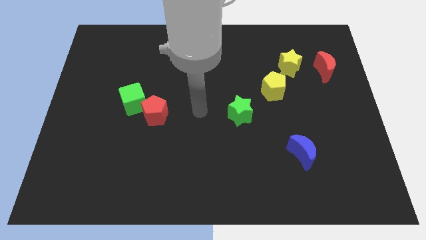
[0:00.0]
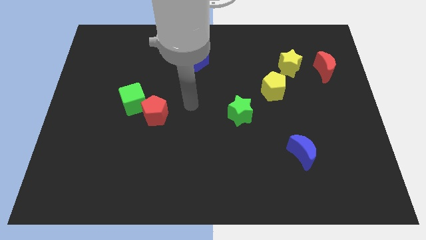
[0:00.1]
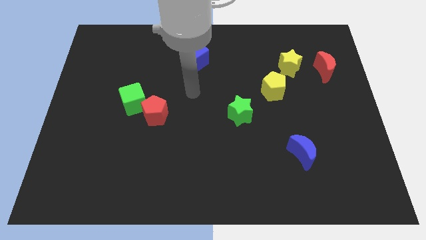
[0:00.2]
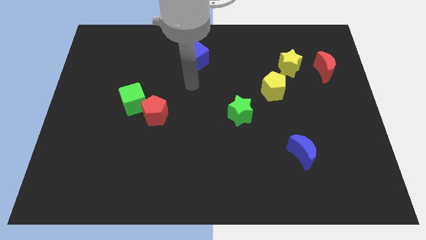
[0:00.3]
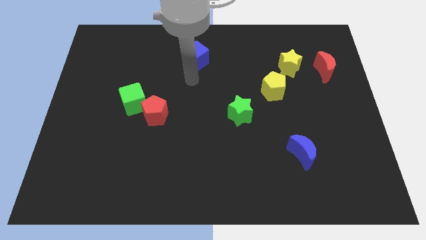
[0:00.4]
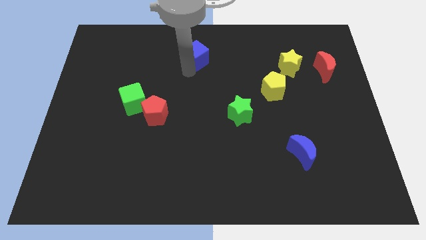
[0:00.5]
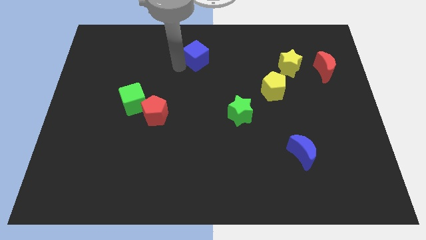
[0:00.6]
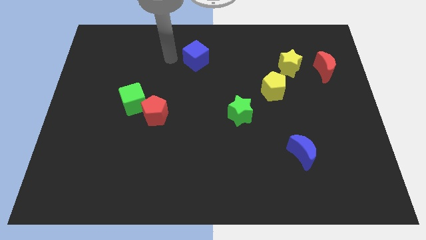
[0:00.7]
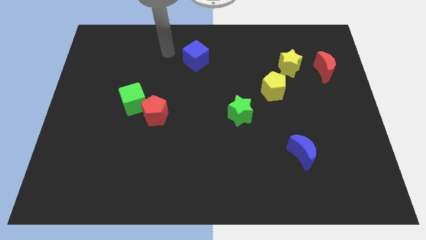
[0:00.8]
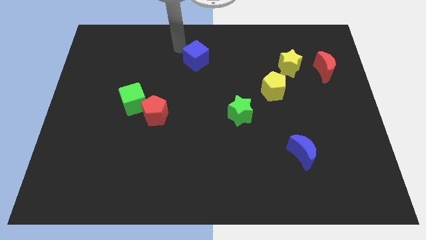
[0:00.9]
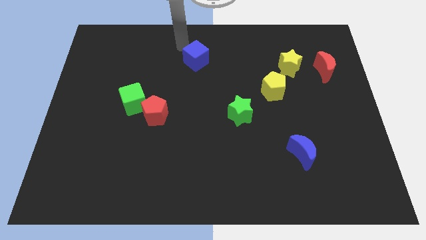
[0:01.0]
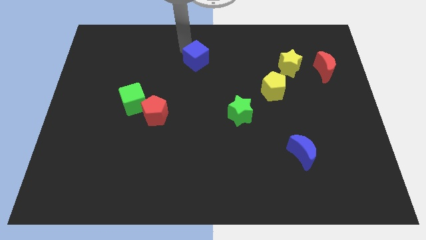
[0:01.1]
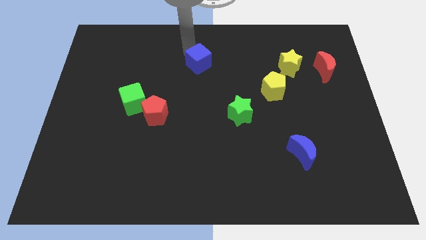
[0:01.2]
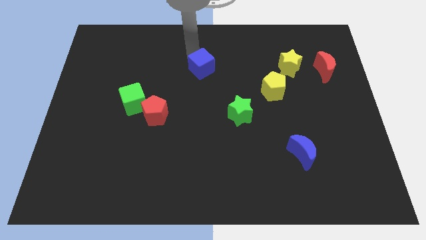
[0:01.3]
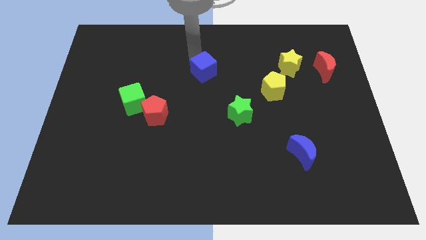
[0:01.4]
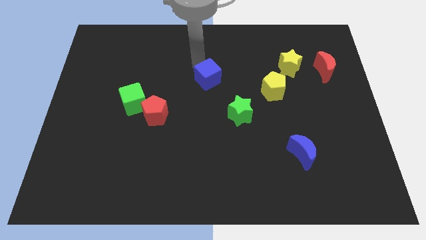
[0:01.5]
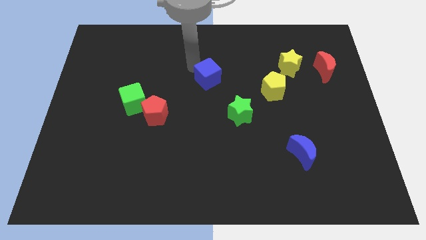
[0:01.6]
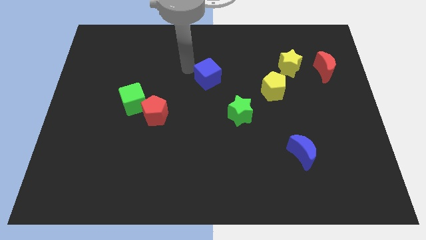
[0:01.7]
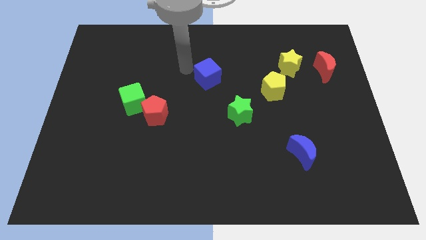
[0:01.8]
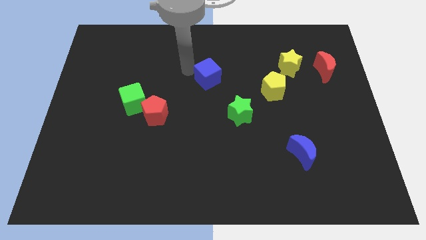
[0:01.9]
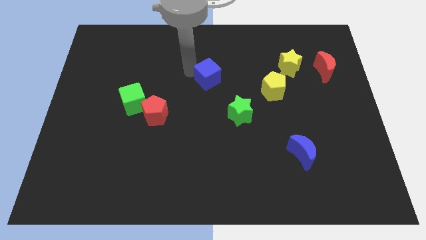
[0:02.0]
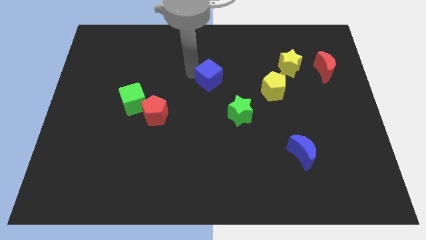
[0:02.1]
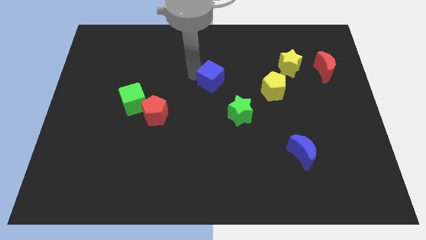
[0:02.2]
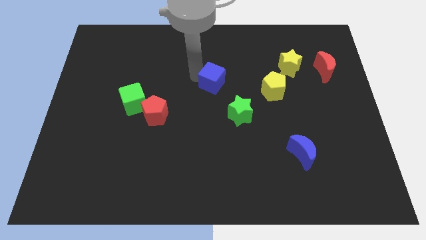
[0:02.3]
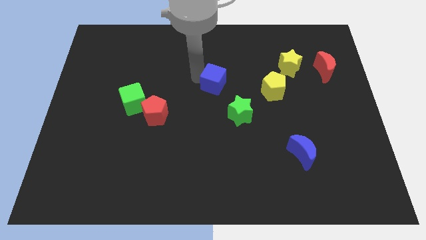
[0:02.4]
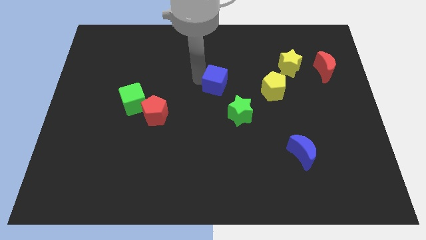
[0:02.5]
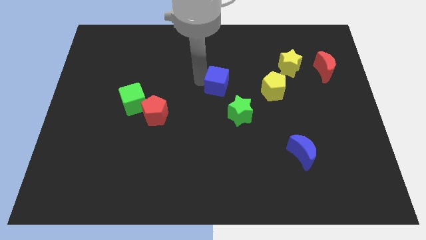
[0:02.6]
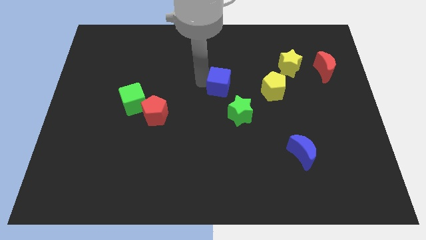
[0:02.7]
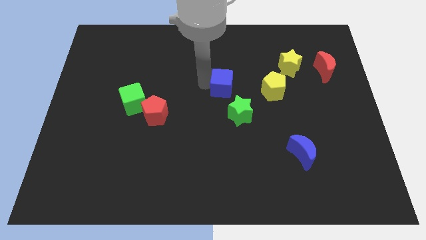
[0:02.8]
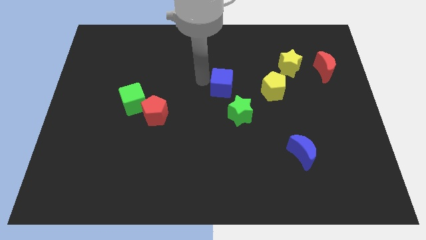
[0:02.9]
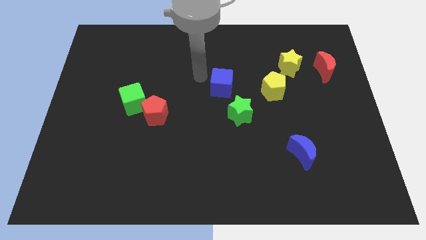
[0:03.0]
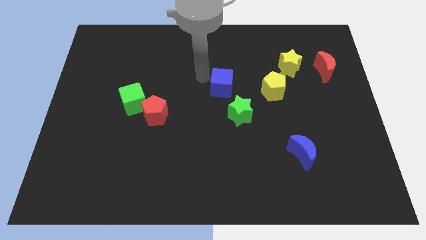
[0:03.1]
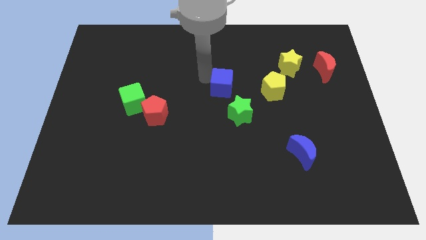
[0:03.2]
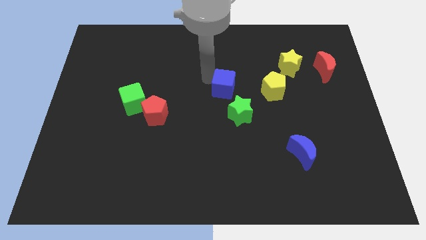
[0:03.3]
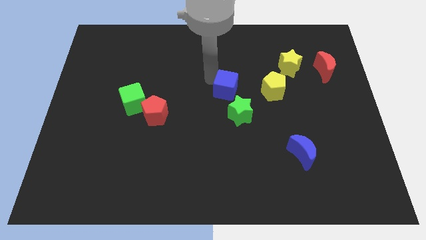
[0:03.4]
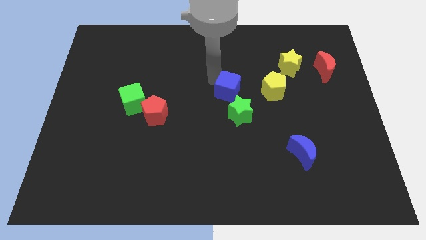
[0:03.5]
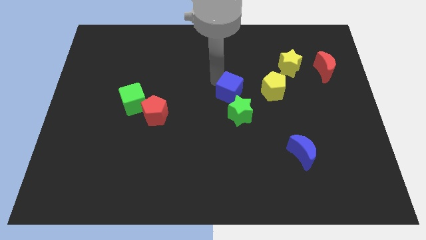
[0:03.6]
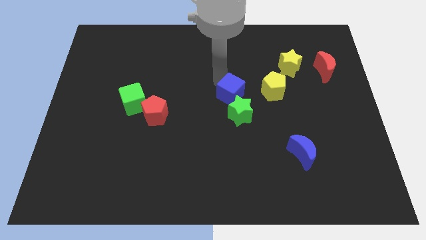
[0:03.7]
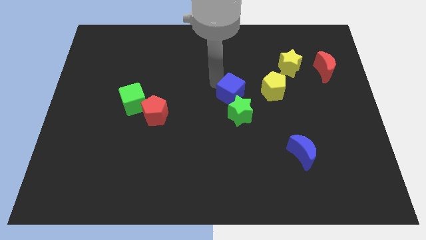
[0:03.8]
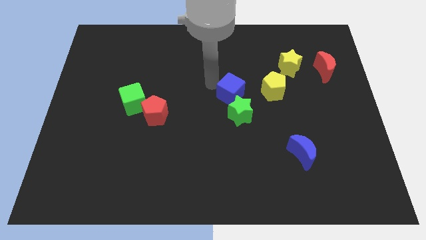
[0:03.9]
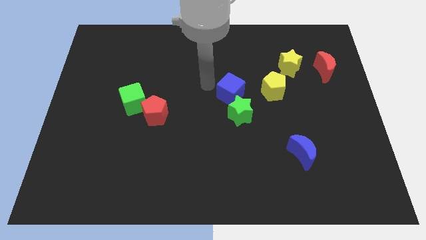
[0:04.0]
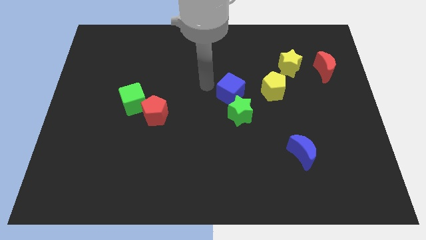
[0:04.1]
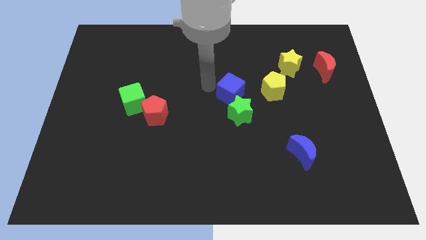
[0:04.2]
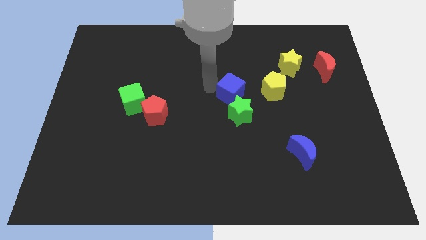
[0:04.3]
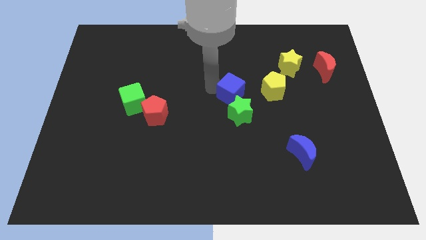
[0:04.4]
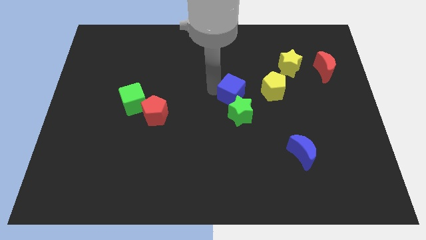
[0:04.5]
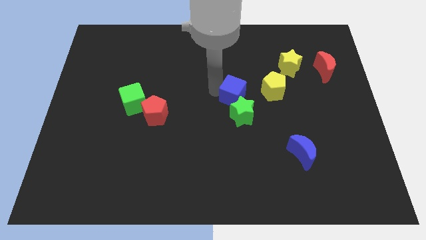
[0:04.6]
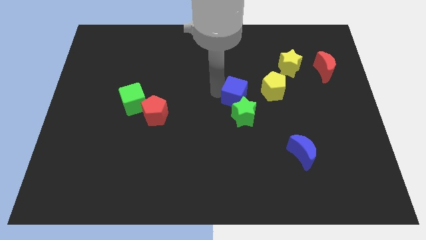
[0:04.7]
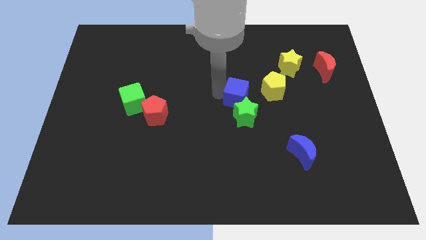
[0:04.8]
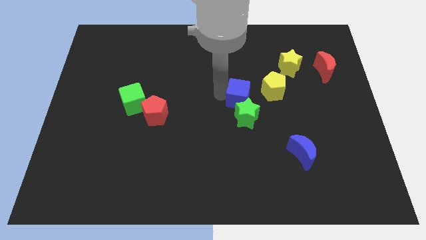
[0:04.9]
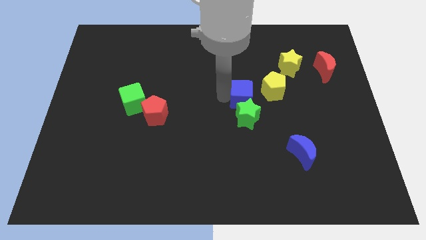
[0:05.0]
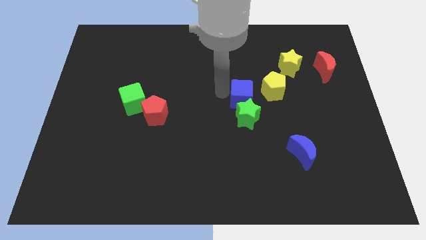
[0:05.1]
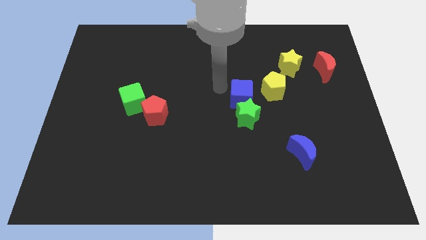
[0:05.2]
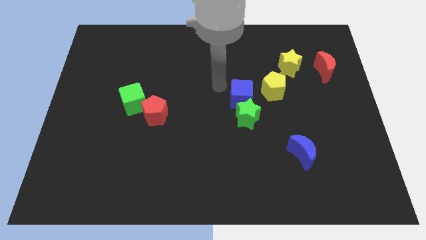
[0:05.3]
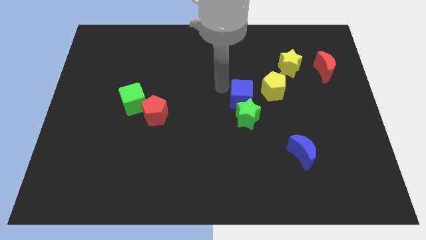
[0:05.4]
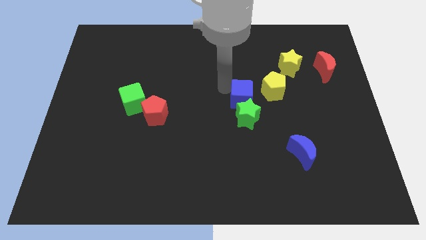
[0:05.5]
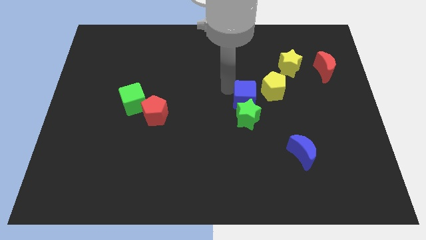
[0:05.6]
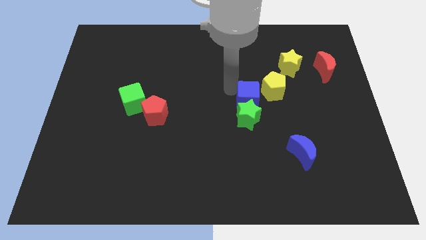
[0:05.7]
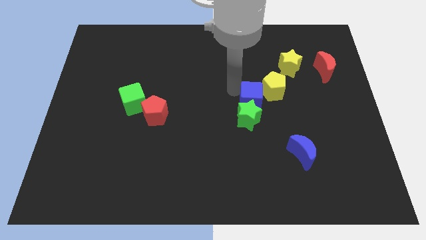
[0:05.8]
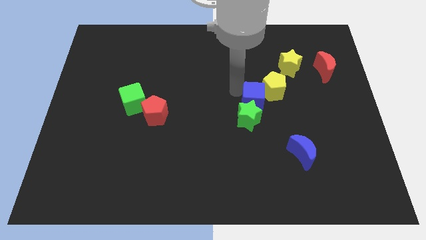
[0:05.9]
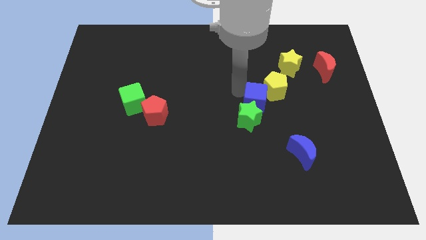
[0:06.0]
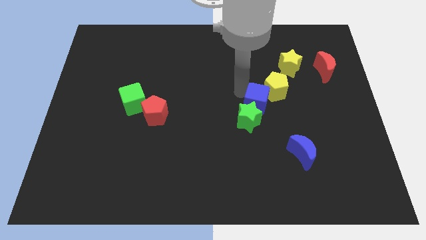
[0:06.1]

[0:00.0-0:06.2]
move the blue cube below the yellow pentagon
